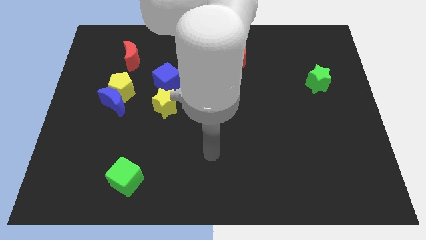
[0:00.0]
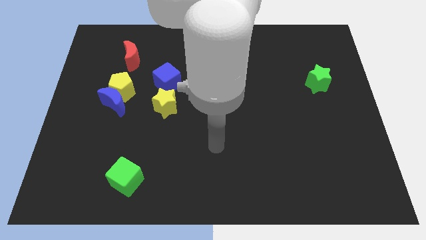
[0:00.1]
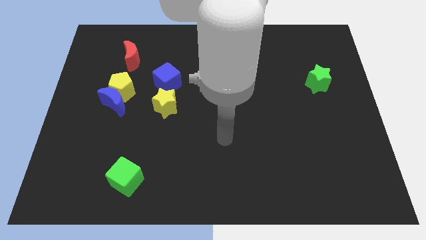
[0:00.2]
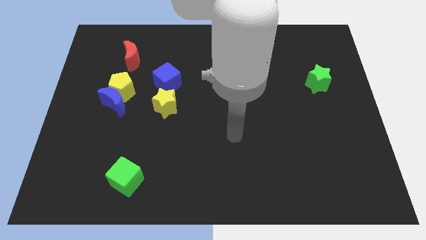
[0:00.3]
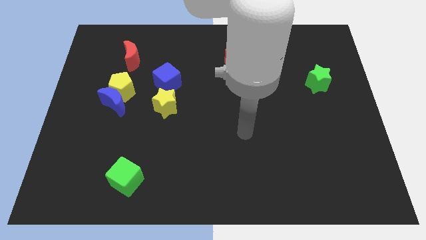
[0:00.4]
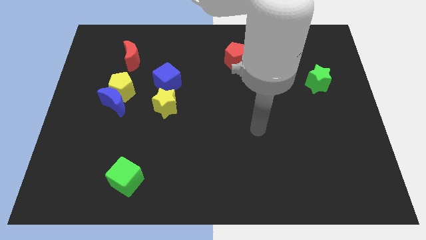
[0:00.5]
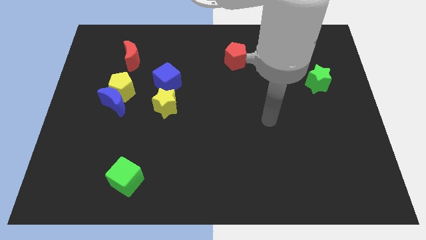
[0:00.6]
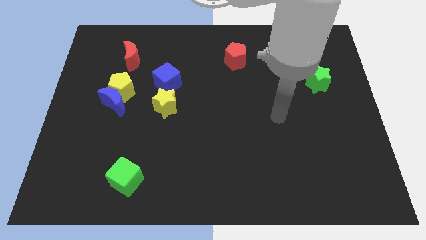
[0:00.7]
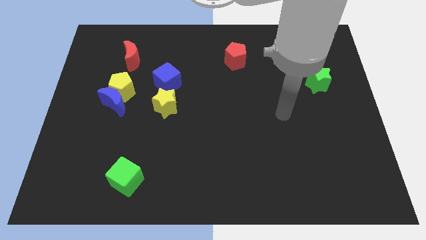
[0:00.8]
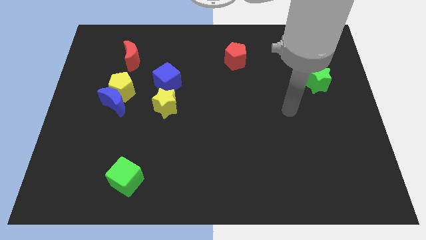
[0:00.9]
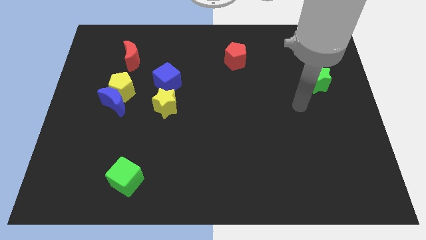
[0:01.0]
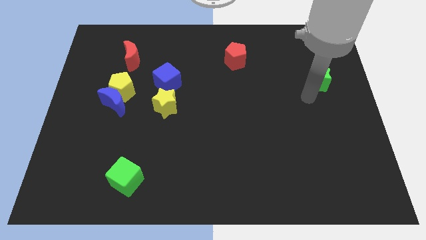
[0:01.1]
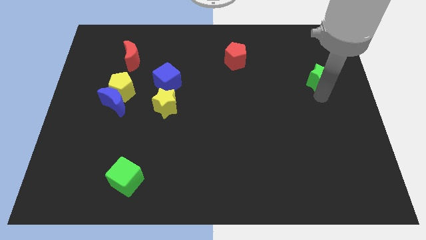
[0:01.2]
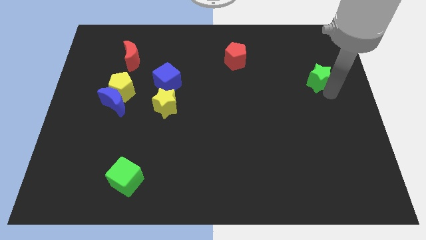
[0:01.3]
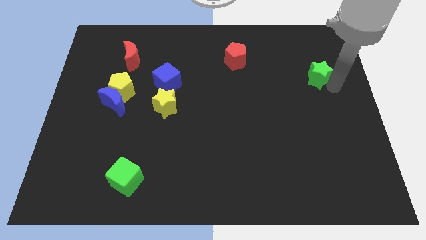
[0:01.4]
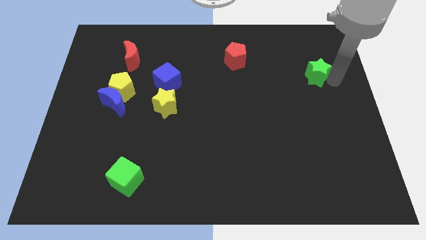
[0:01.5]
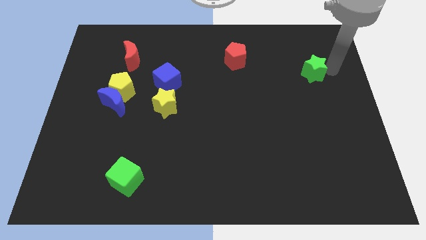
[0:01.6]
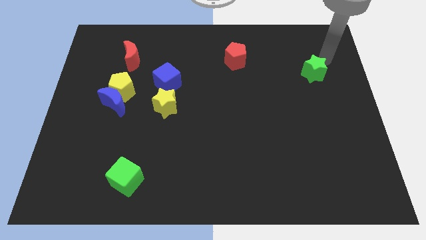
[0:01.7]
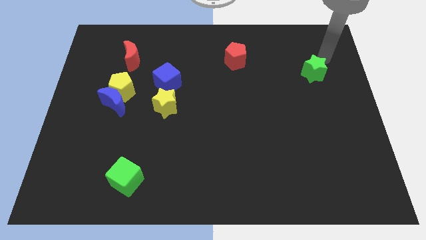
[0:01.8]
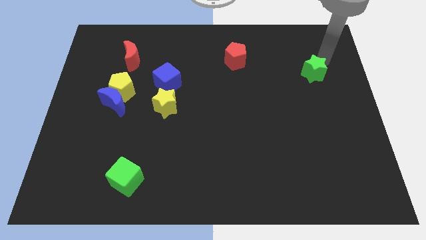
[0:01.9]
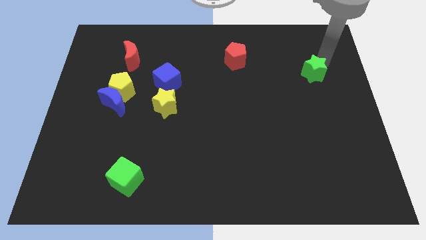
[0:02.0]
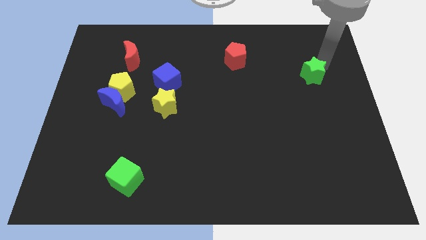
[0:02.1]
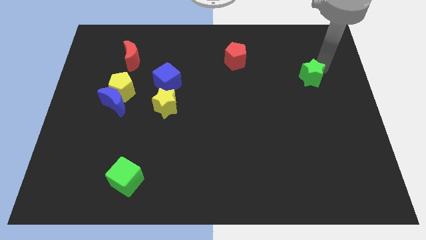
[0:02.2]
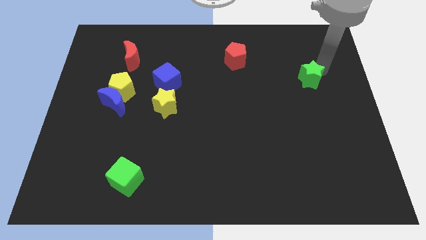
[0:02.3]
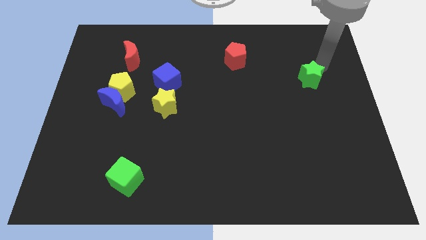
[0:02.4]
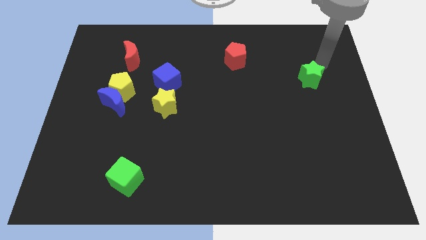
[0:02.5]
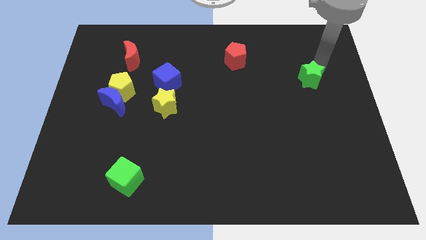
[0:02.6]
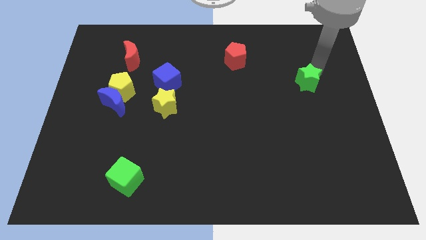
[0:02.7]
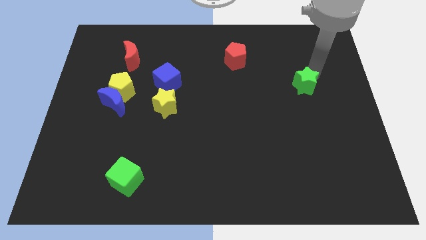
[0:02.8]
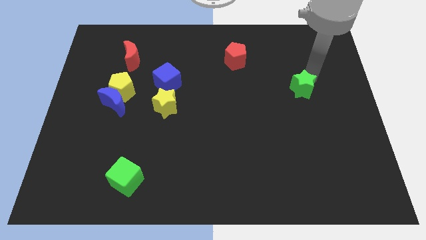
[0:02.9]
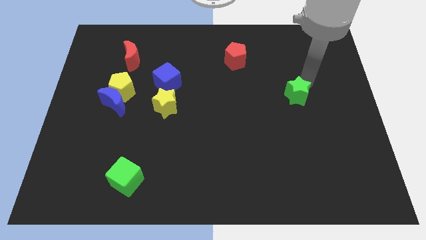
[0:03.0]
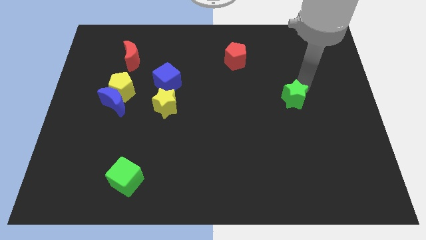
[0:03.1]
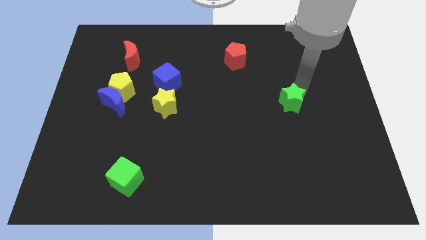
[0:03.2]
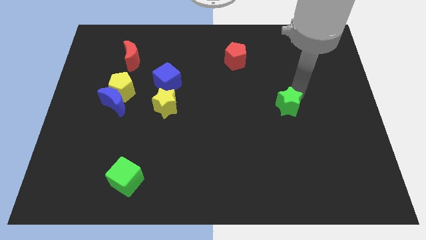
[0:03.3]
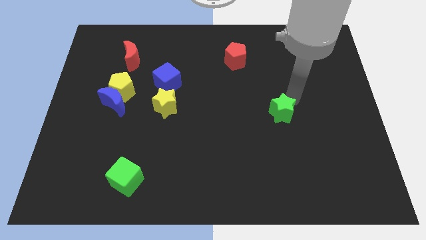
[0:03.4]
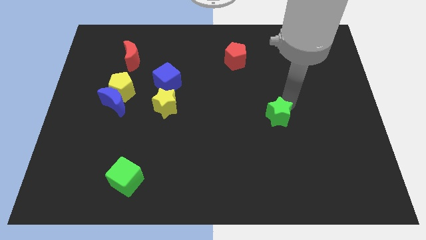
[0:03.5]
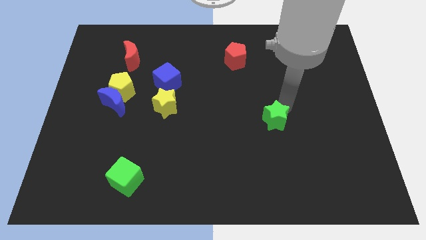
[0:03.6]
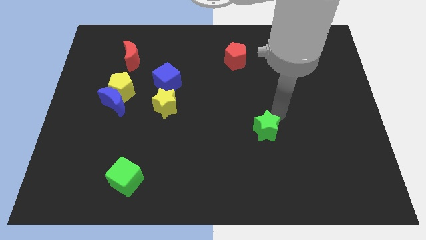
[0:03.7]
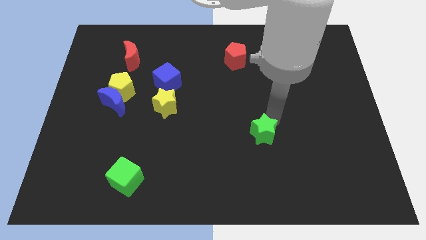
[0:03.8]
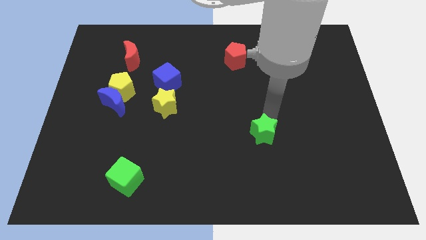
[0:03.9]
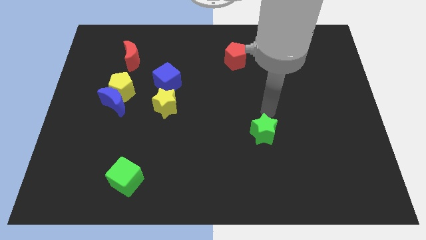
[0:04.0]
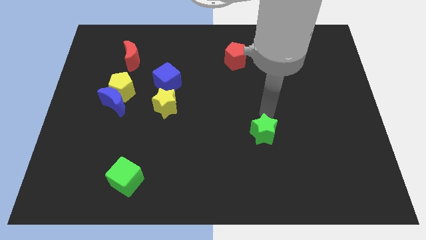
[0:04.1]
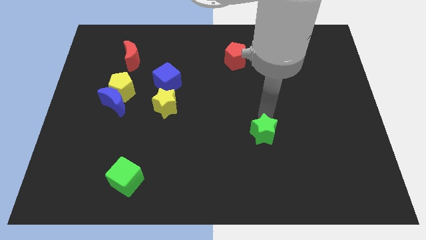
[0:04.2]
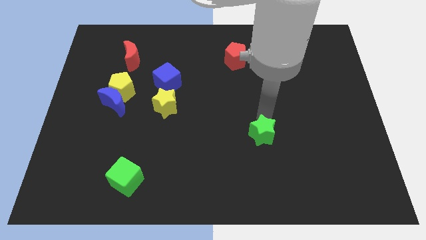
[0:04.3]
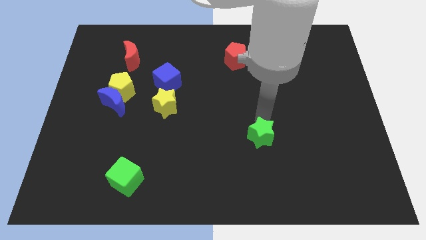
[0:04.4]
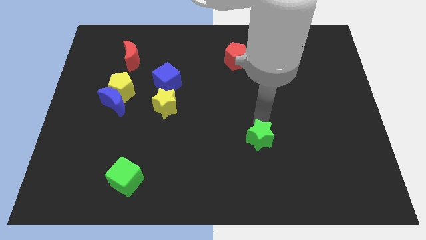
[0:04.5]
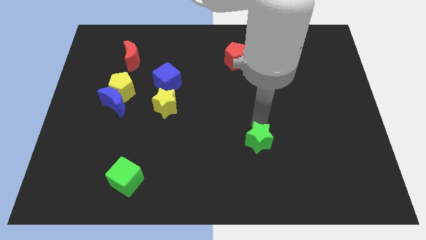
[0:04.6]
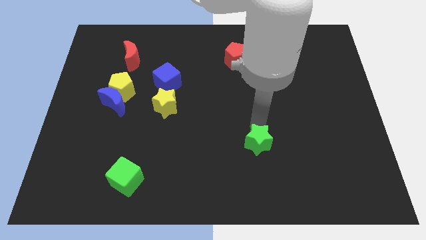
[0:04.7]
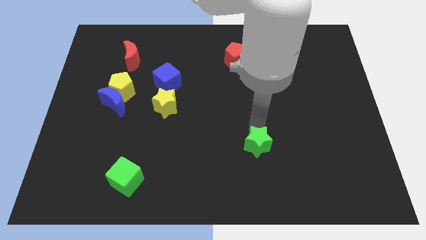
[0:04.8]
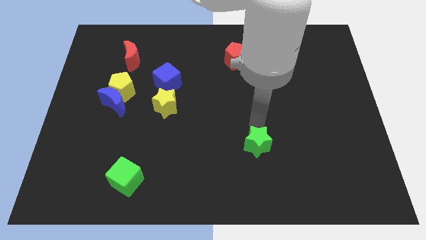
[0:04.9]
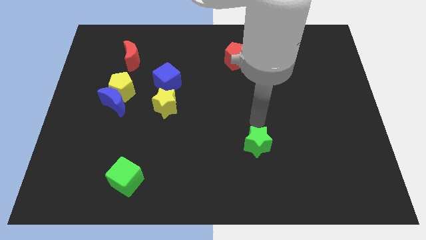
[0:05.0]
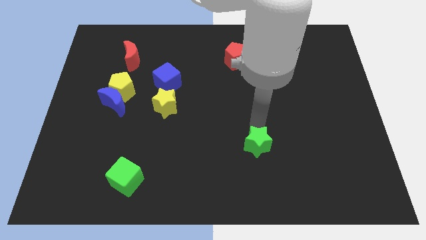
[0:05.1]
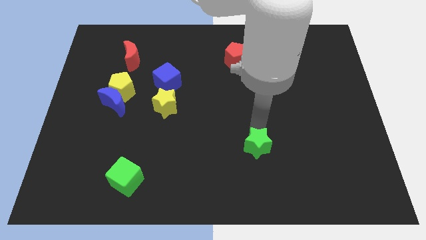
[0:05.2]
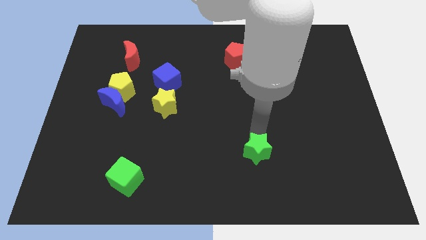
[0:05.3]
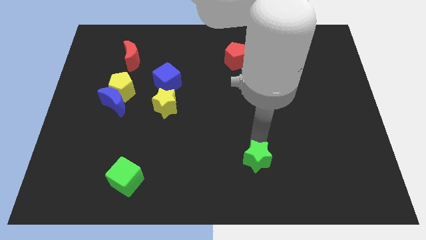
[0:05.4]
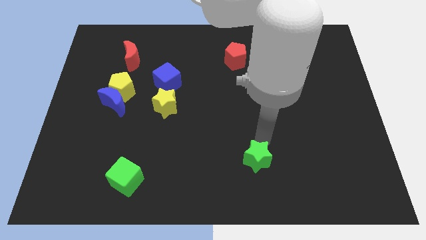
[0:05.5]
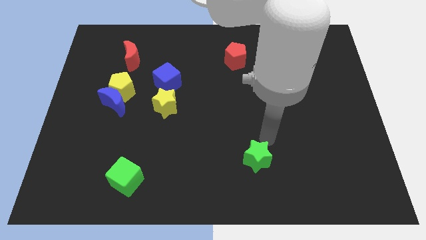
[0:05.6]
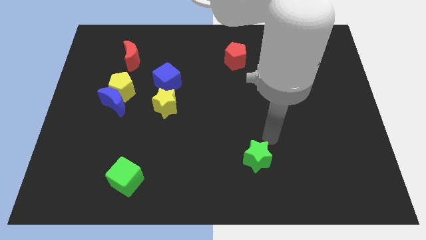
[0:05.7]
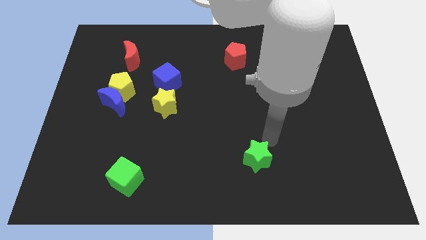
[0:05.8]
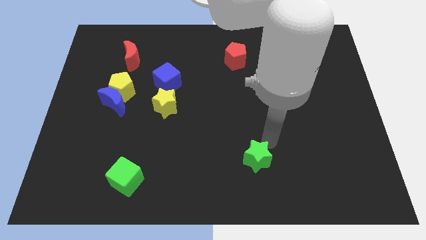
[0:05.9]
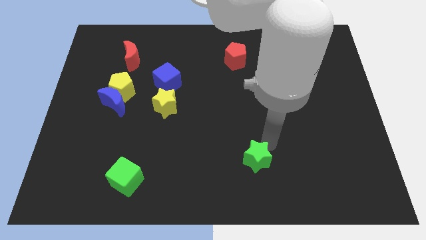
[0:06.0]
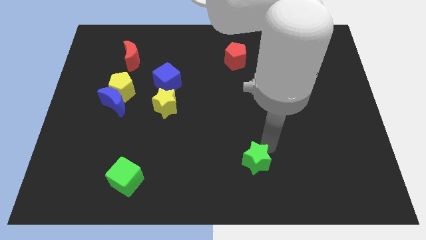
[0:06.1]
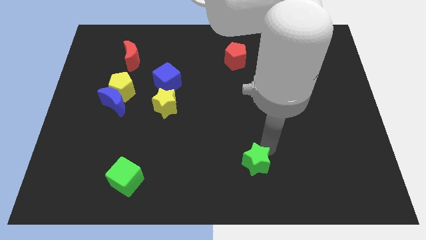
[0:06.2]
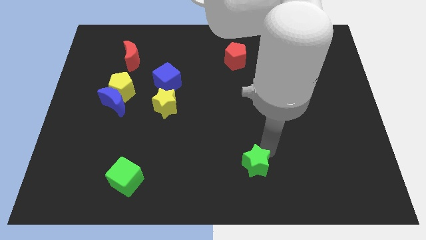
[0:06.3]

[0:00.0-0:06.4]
put the green star to the bottom side

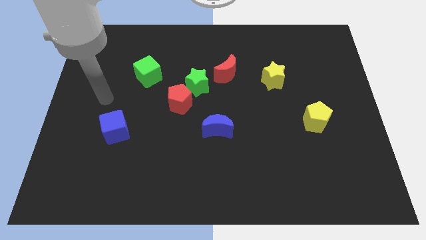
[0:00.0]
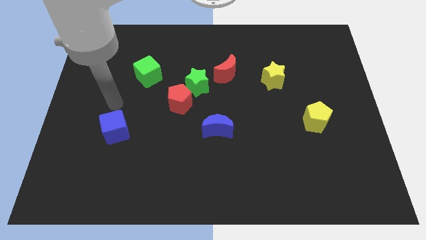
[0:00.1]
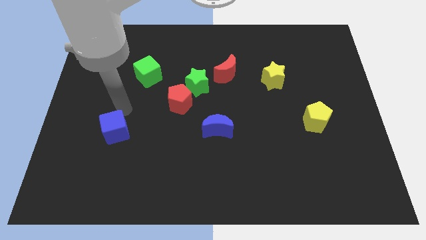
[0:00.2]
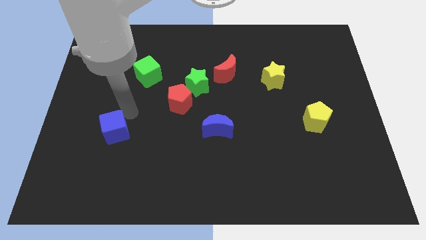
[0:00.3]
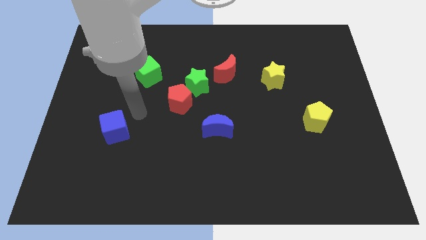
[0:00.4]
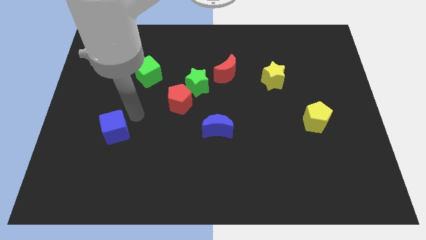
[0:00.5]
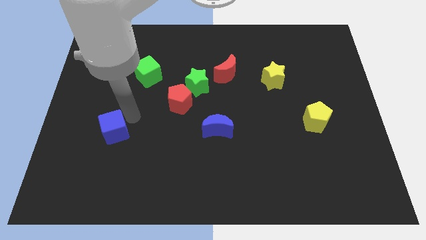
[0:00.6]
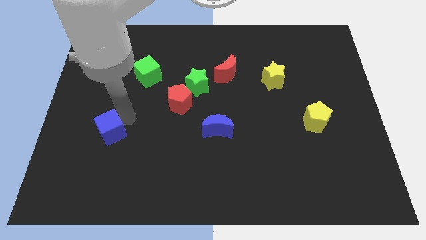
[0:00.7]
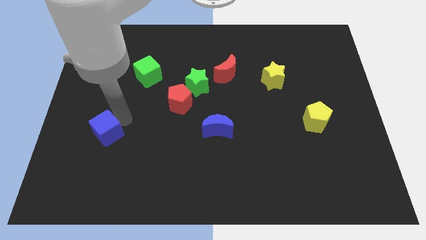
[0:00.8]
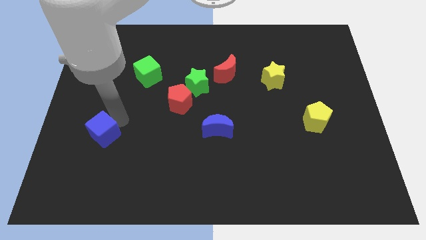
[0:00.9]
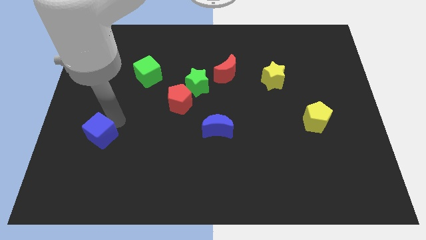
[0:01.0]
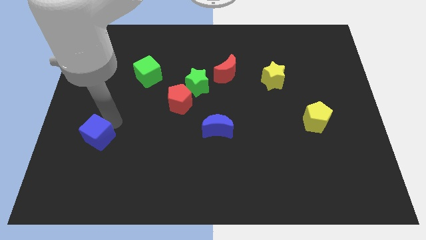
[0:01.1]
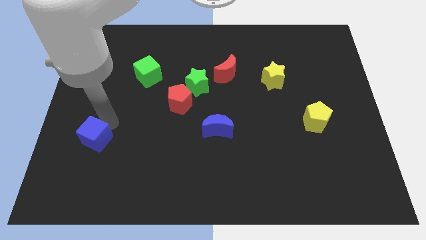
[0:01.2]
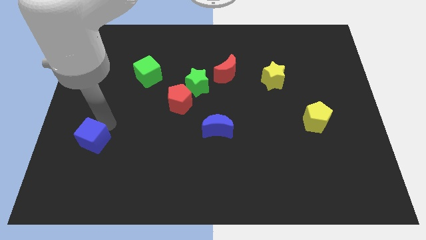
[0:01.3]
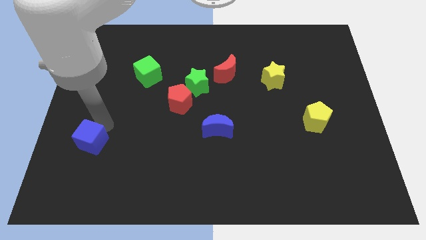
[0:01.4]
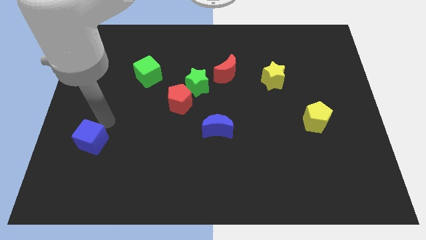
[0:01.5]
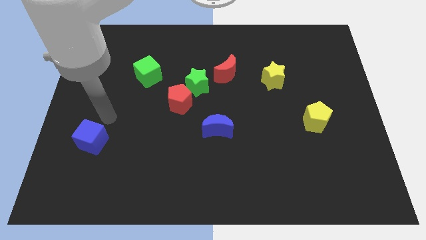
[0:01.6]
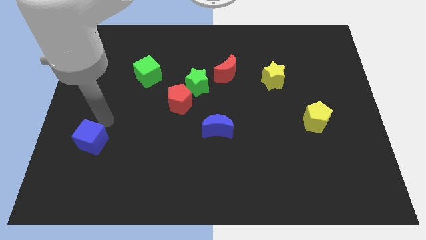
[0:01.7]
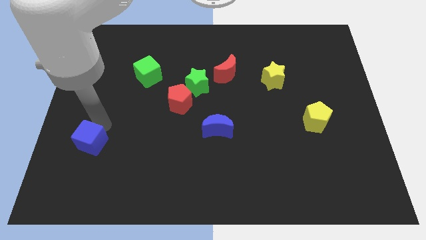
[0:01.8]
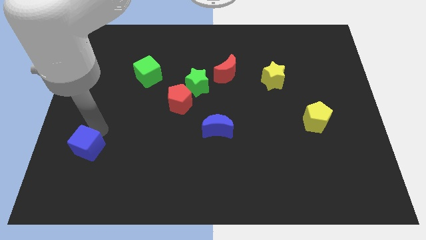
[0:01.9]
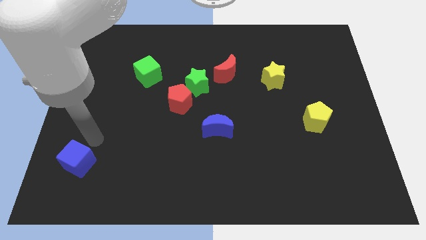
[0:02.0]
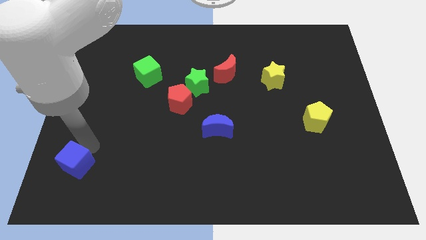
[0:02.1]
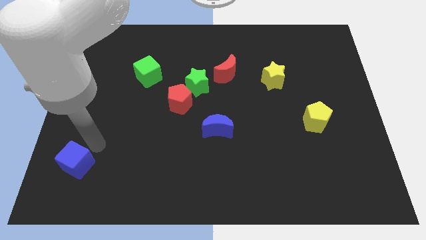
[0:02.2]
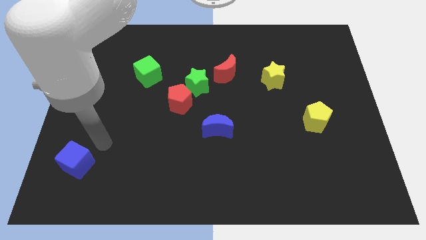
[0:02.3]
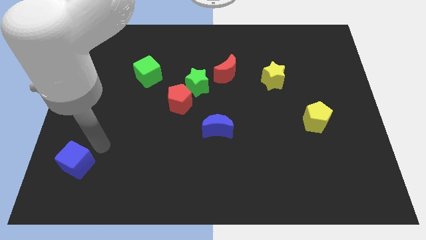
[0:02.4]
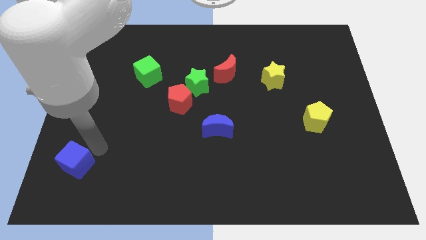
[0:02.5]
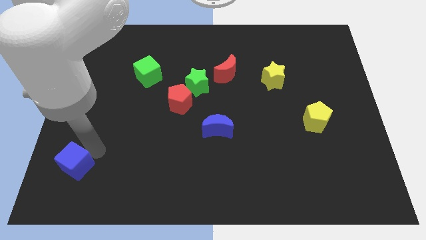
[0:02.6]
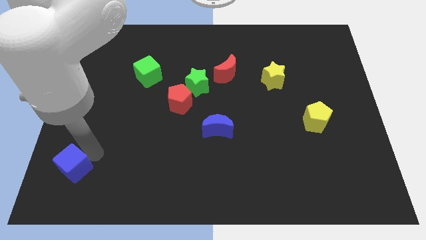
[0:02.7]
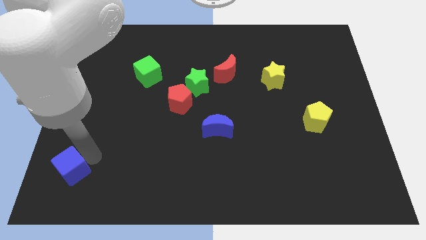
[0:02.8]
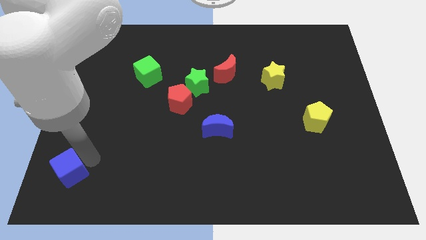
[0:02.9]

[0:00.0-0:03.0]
slide the blue cube to the bottom left
